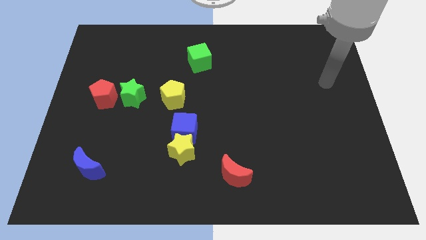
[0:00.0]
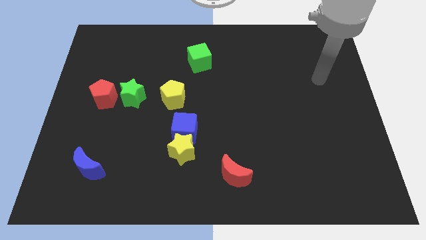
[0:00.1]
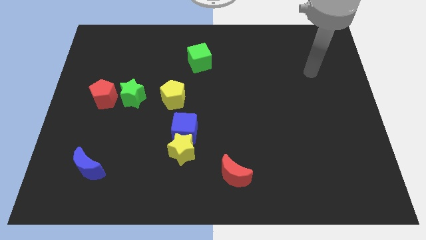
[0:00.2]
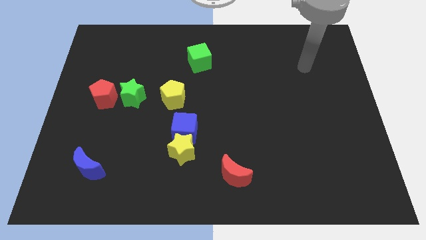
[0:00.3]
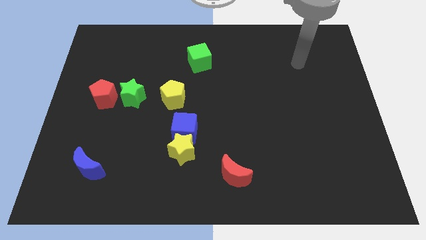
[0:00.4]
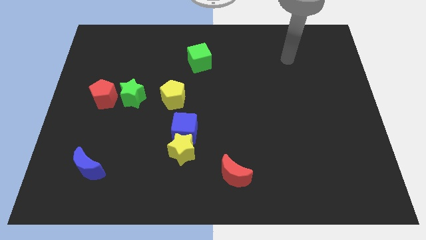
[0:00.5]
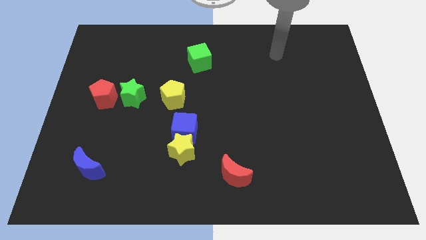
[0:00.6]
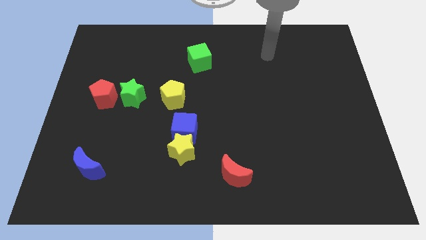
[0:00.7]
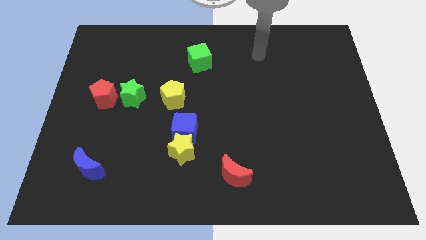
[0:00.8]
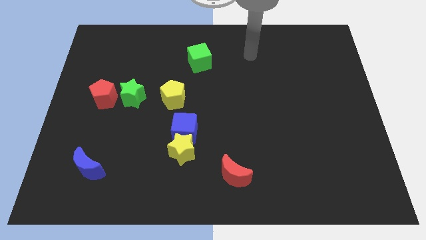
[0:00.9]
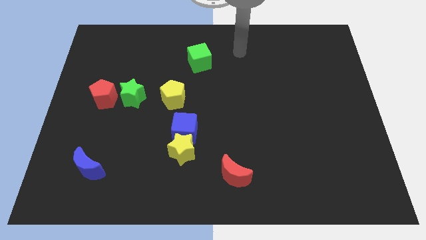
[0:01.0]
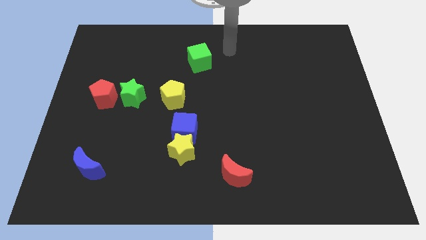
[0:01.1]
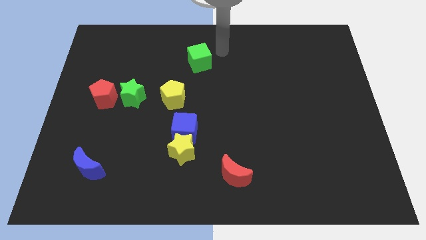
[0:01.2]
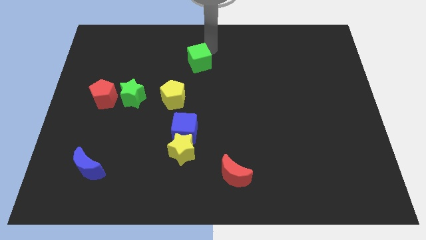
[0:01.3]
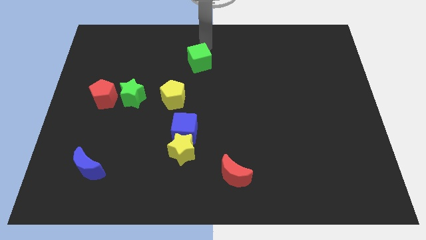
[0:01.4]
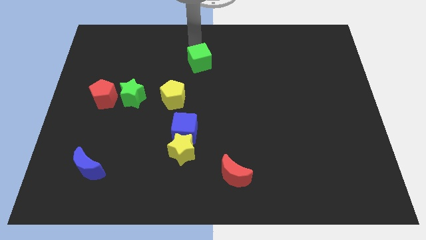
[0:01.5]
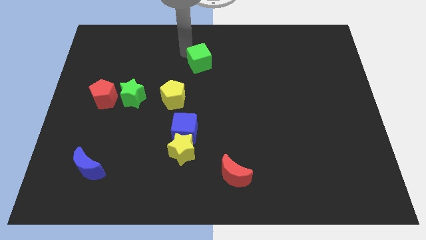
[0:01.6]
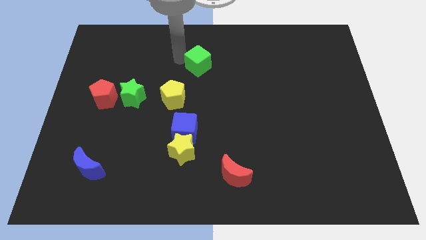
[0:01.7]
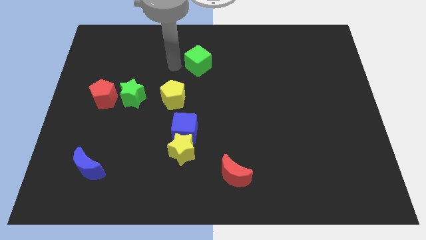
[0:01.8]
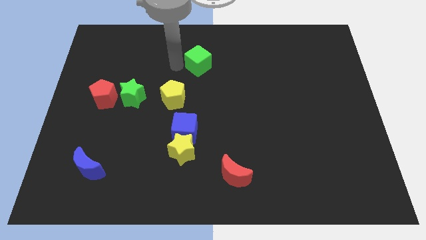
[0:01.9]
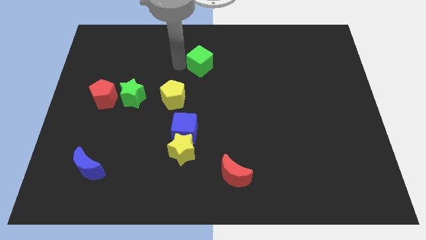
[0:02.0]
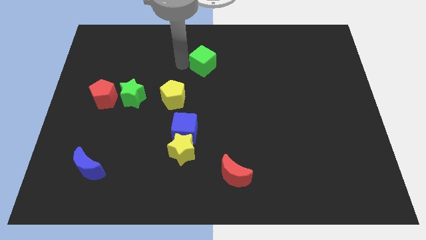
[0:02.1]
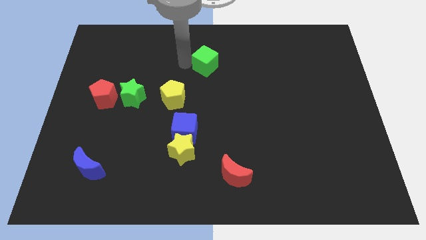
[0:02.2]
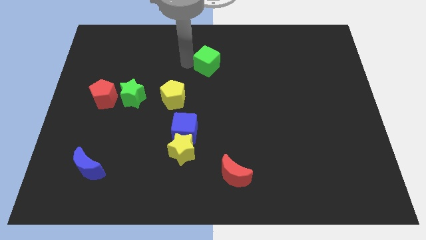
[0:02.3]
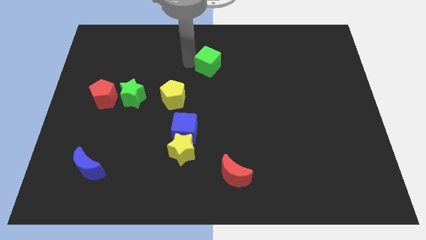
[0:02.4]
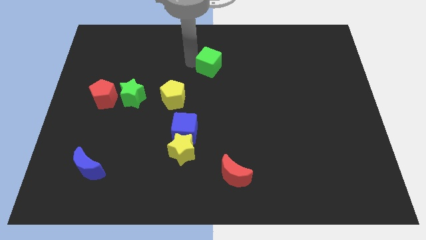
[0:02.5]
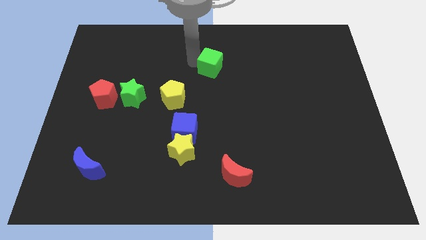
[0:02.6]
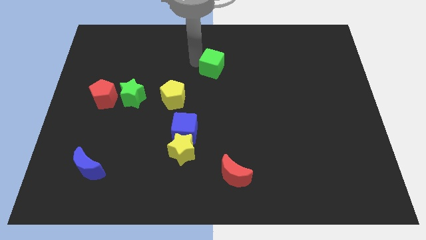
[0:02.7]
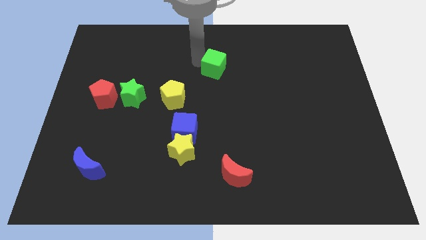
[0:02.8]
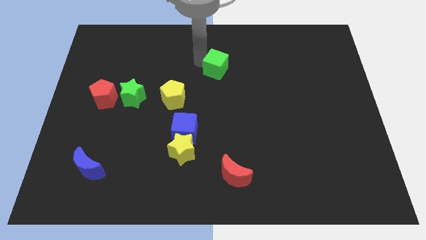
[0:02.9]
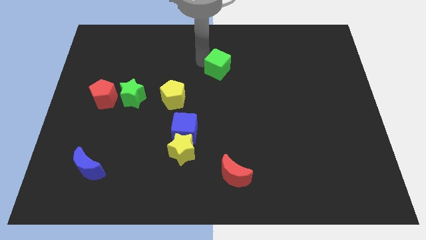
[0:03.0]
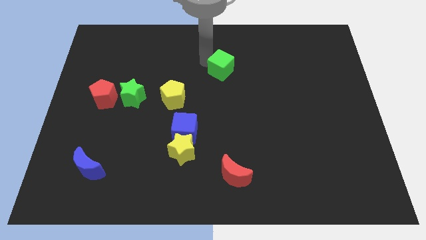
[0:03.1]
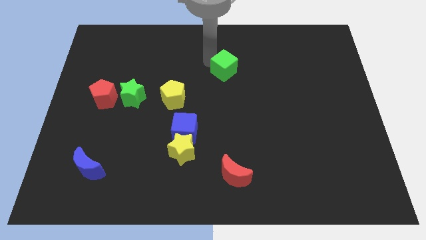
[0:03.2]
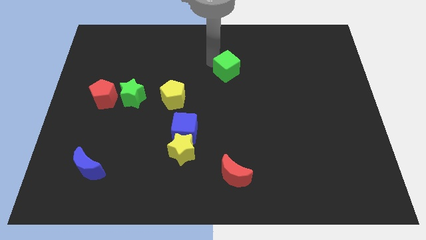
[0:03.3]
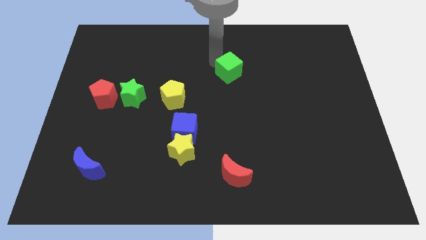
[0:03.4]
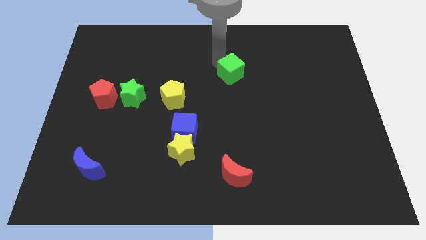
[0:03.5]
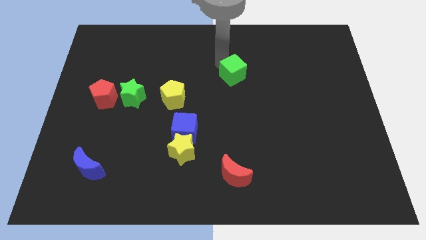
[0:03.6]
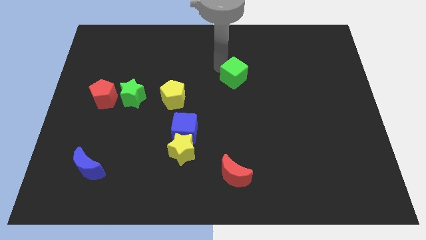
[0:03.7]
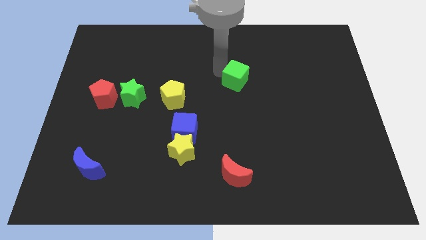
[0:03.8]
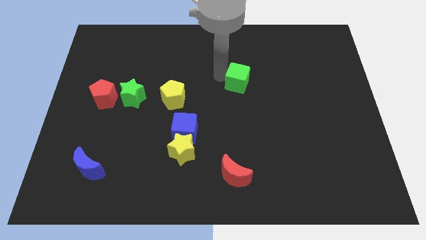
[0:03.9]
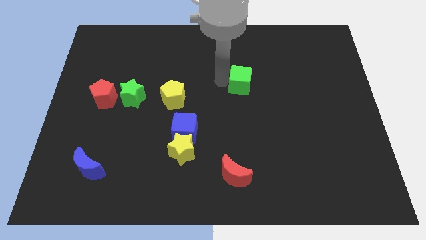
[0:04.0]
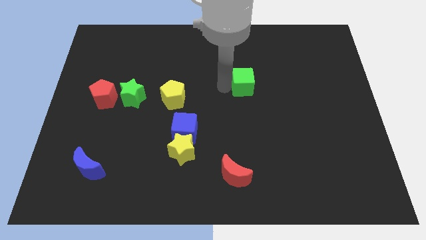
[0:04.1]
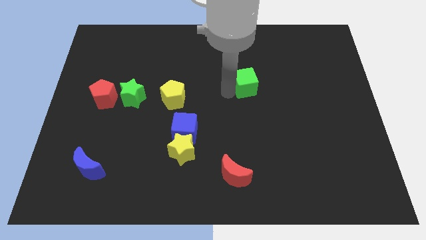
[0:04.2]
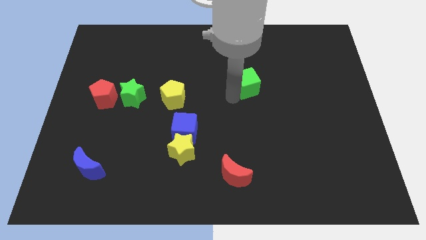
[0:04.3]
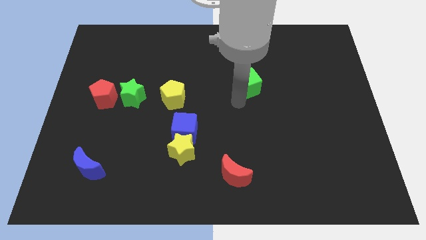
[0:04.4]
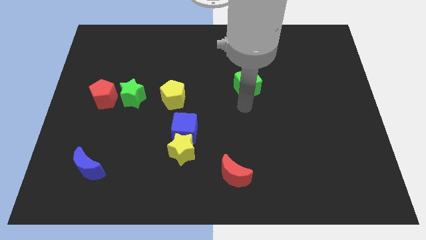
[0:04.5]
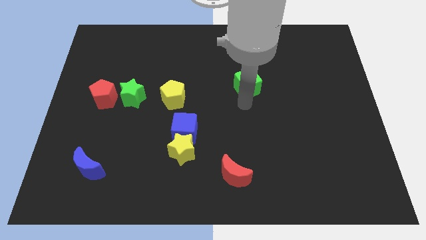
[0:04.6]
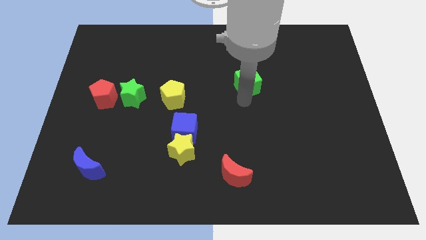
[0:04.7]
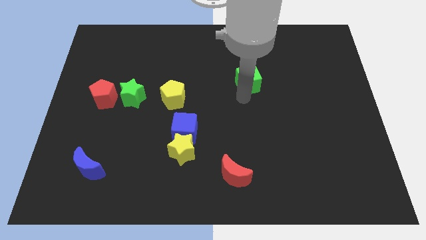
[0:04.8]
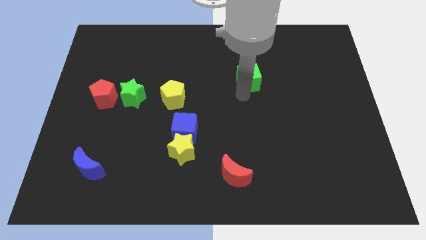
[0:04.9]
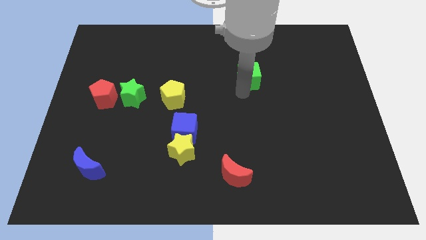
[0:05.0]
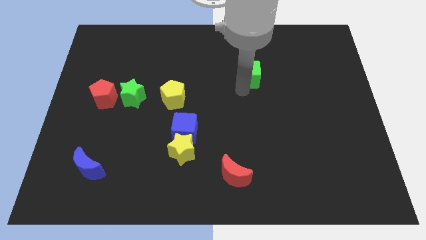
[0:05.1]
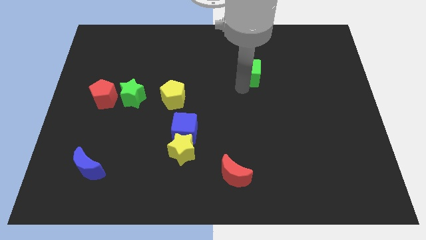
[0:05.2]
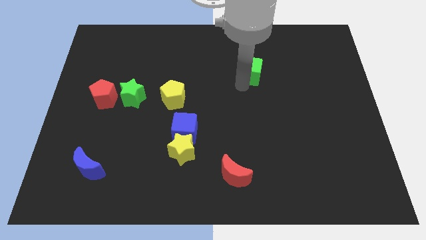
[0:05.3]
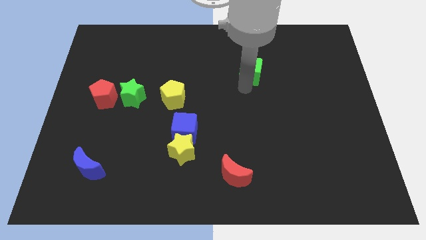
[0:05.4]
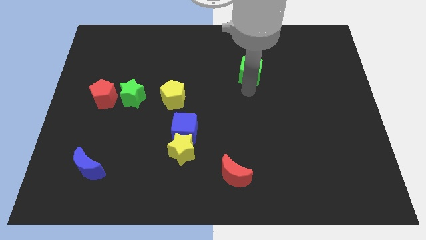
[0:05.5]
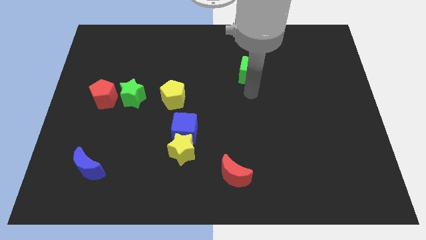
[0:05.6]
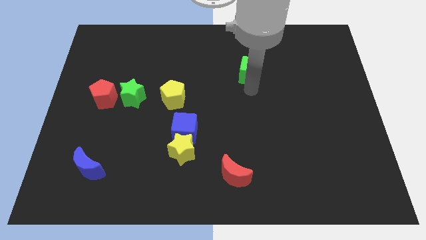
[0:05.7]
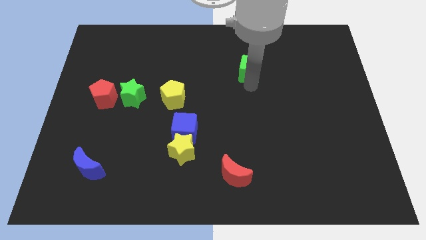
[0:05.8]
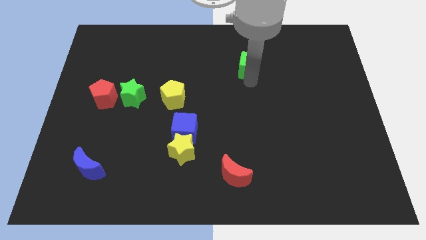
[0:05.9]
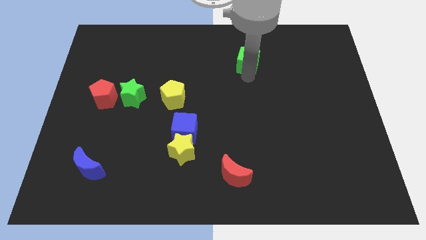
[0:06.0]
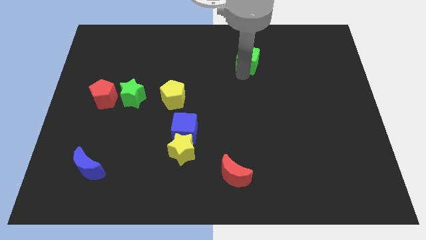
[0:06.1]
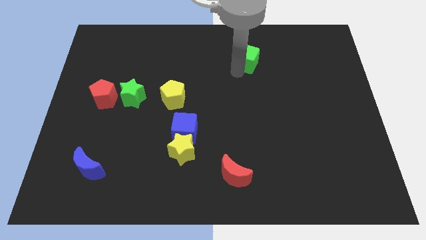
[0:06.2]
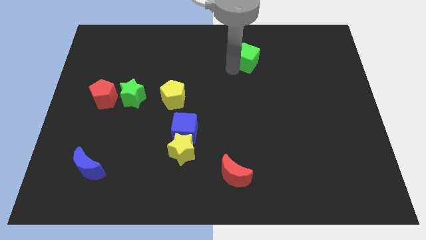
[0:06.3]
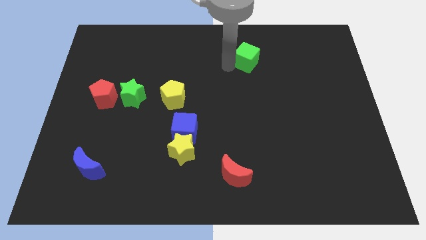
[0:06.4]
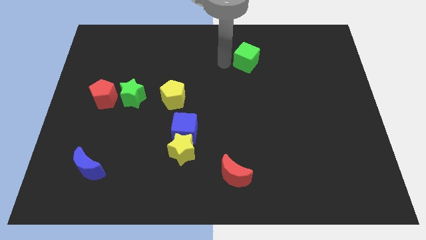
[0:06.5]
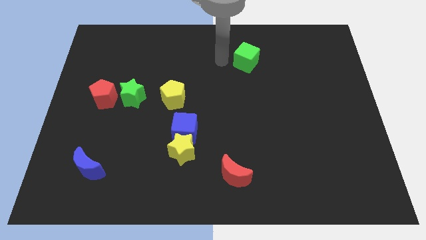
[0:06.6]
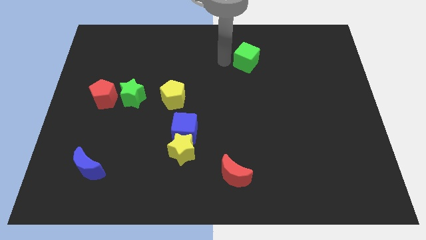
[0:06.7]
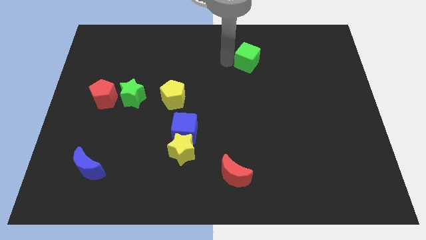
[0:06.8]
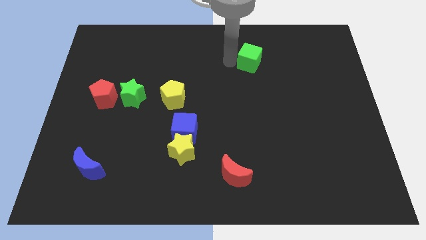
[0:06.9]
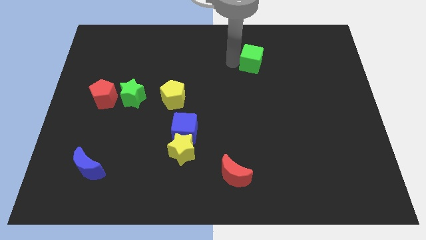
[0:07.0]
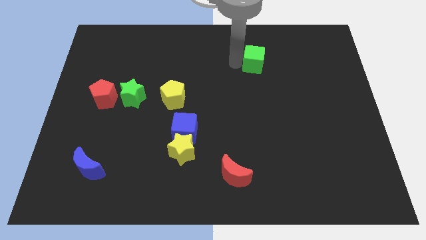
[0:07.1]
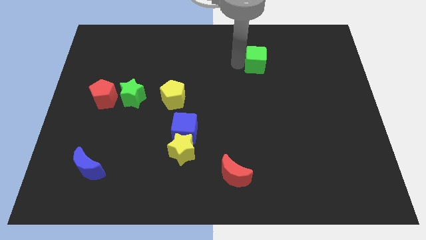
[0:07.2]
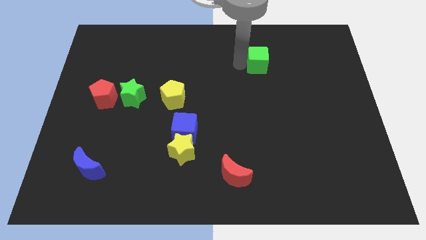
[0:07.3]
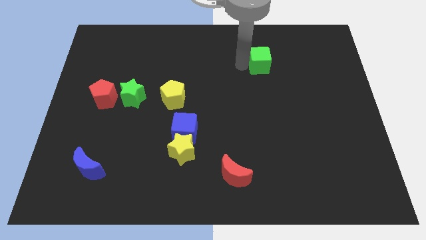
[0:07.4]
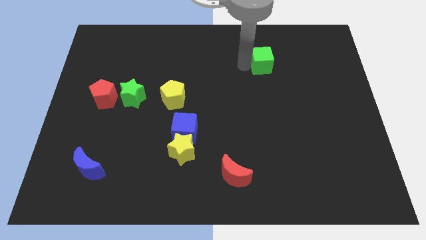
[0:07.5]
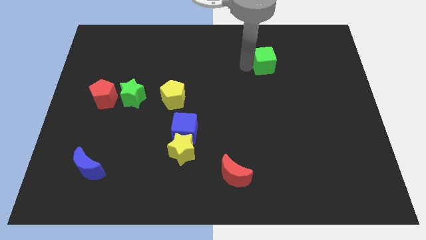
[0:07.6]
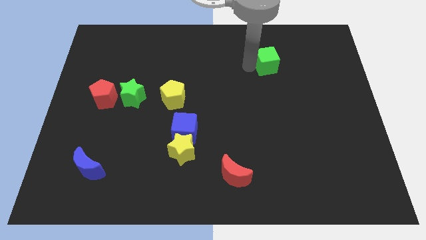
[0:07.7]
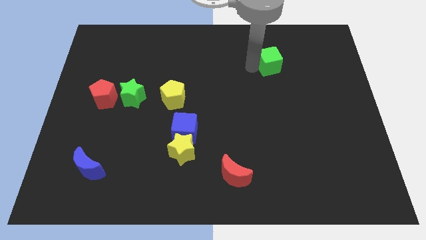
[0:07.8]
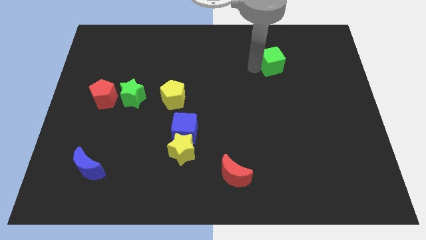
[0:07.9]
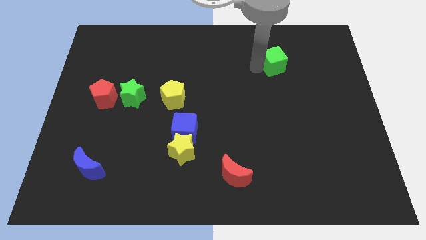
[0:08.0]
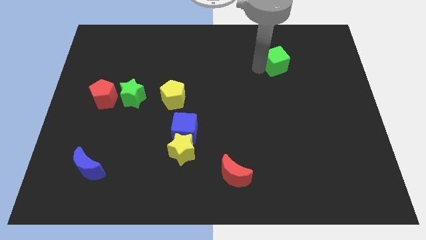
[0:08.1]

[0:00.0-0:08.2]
push the green cube to the right

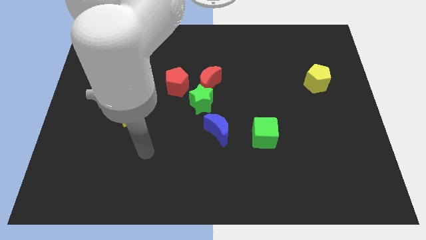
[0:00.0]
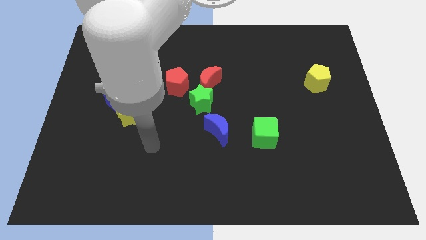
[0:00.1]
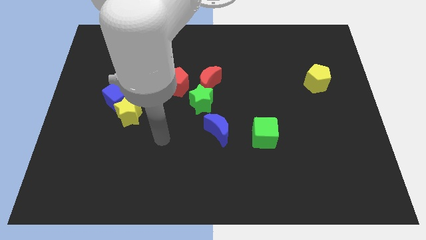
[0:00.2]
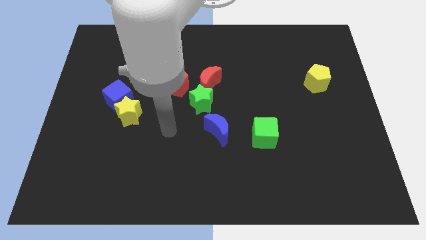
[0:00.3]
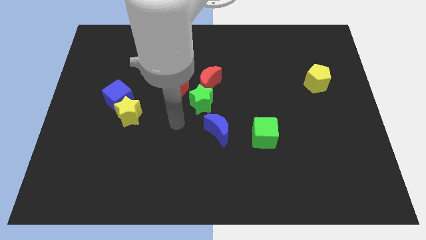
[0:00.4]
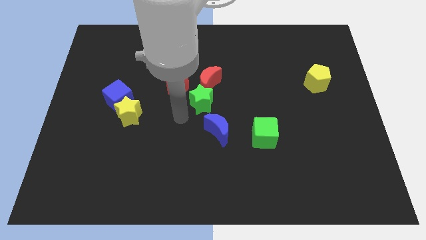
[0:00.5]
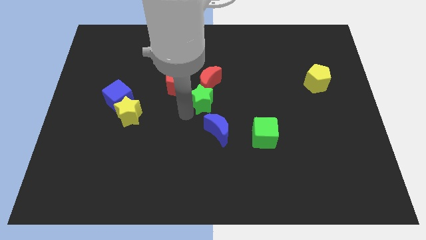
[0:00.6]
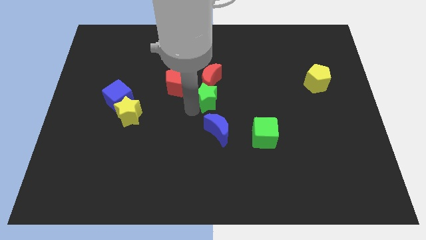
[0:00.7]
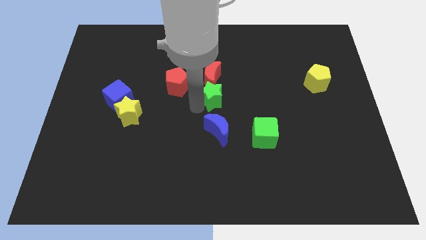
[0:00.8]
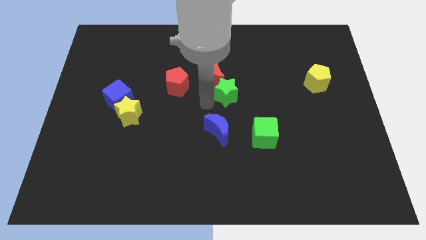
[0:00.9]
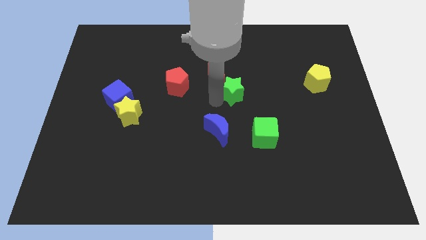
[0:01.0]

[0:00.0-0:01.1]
slightly push the green star up and then to the right
